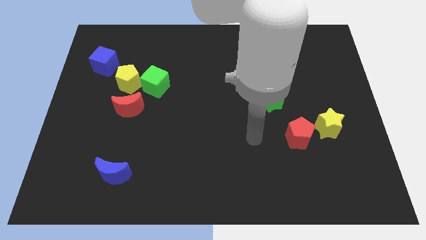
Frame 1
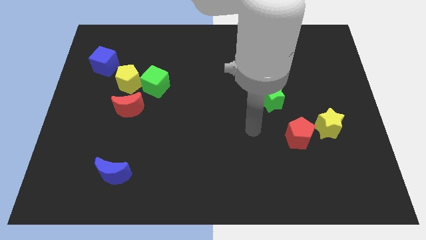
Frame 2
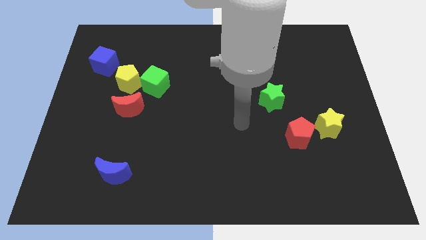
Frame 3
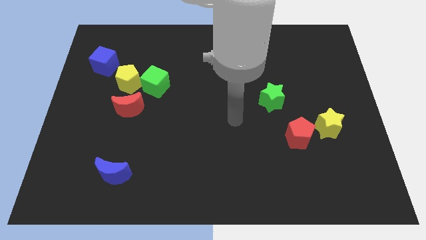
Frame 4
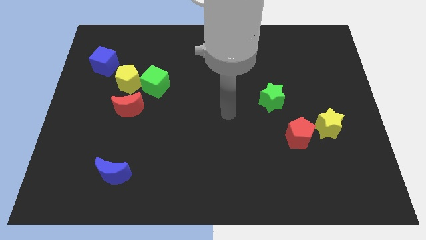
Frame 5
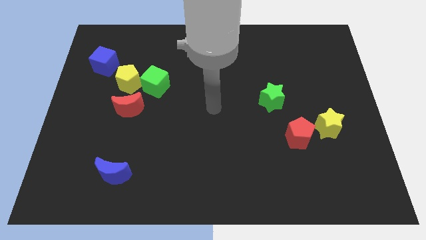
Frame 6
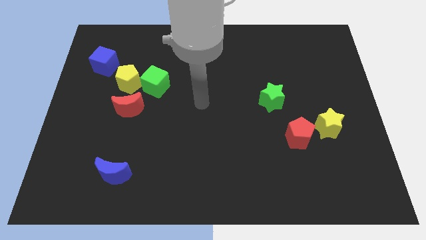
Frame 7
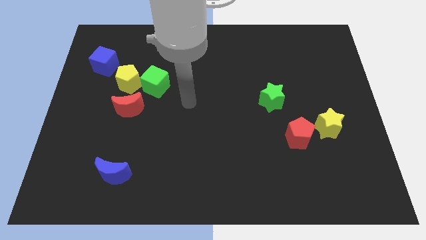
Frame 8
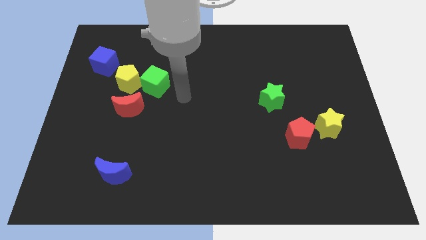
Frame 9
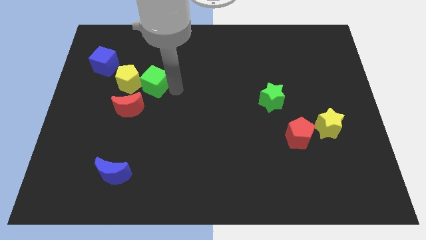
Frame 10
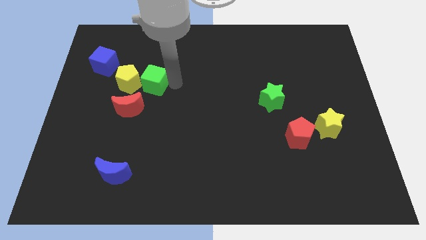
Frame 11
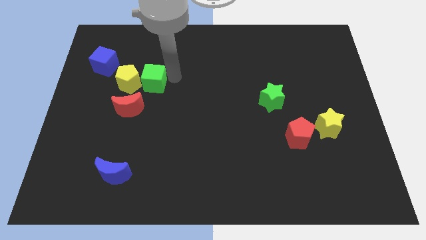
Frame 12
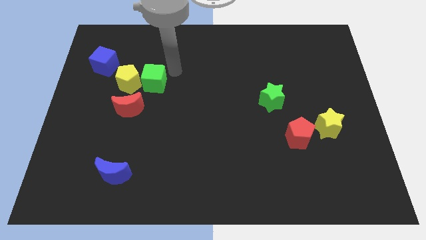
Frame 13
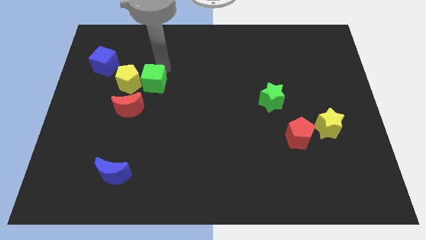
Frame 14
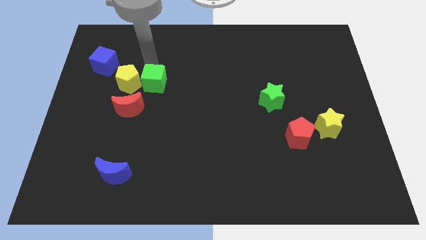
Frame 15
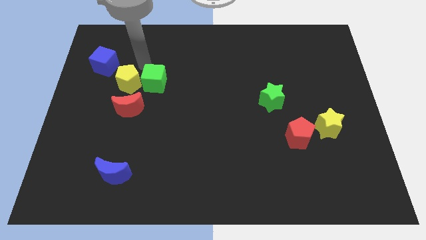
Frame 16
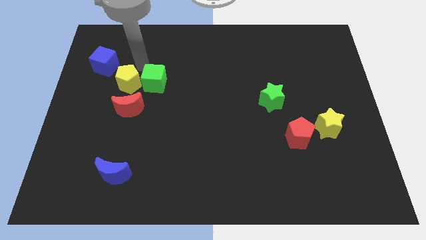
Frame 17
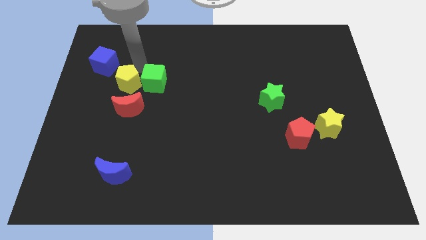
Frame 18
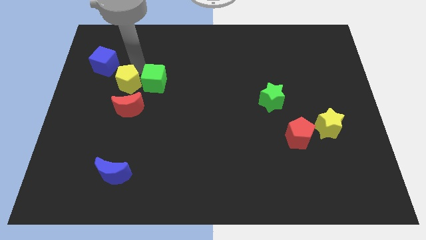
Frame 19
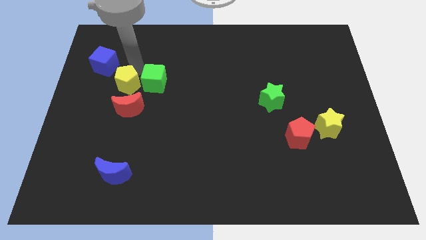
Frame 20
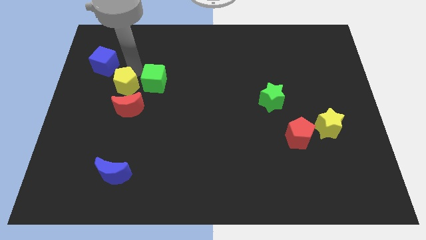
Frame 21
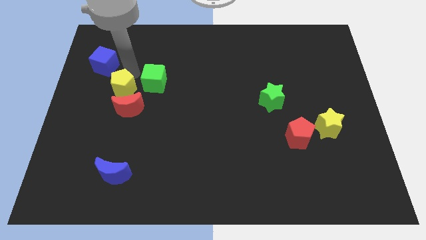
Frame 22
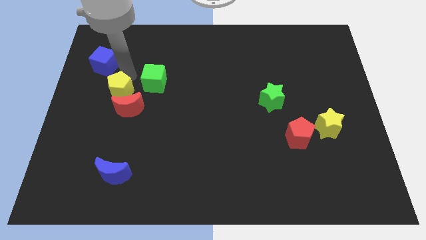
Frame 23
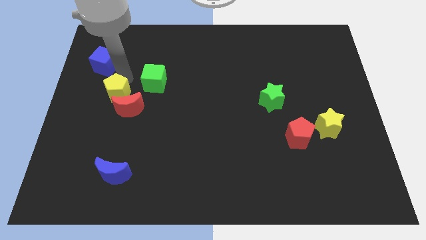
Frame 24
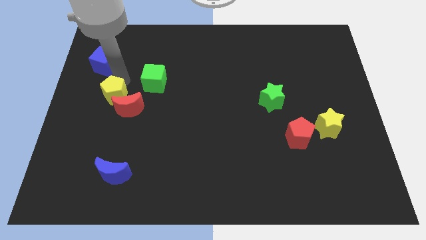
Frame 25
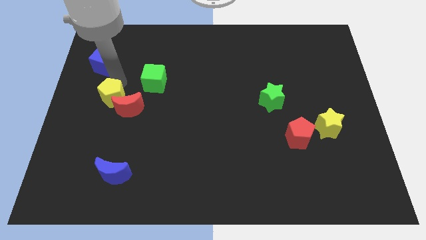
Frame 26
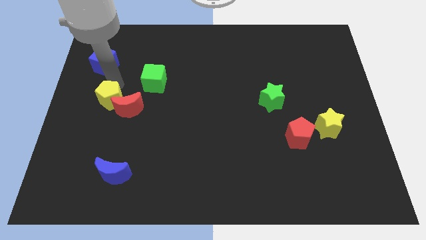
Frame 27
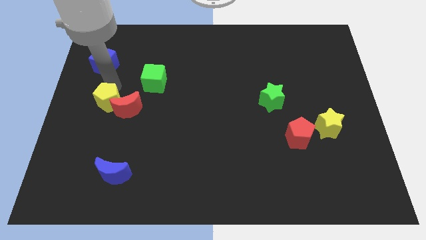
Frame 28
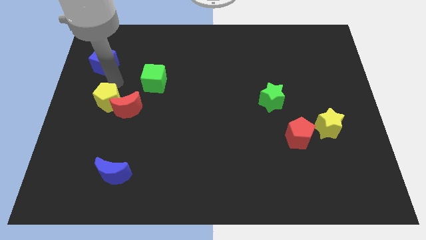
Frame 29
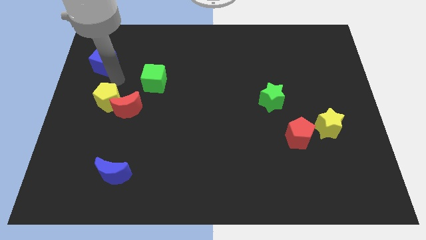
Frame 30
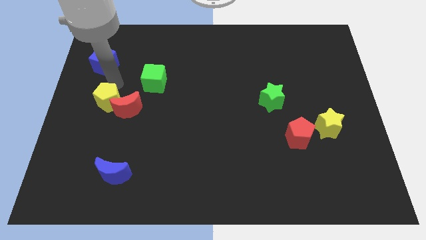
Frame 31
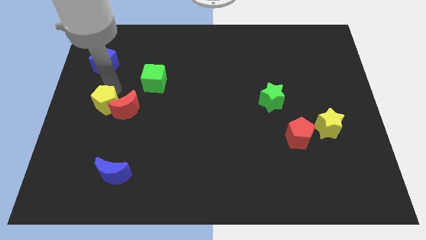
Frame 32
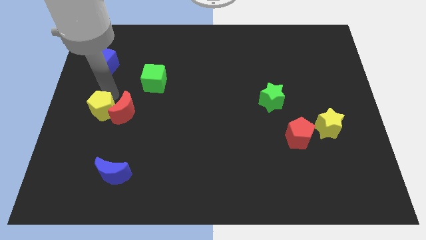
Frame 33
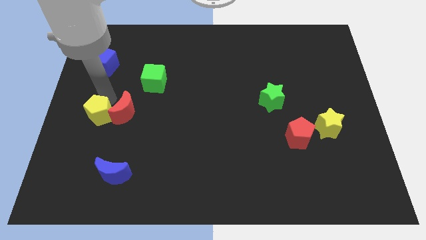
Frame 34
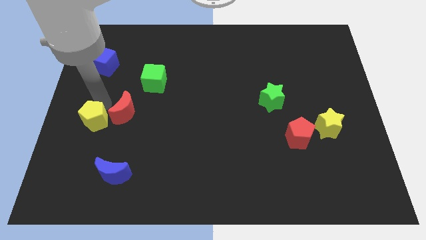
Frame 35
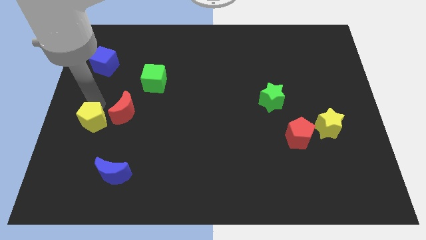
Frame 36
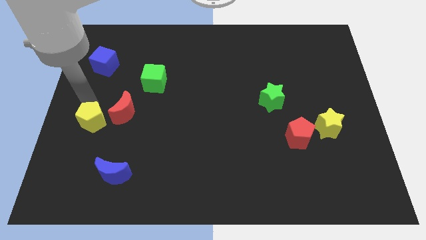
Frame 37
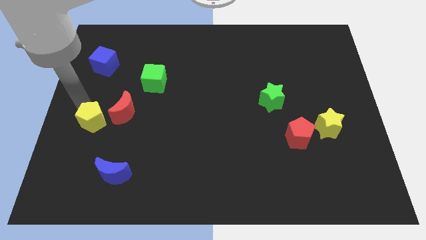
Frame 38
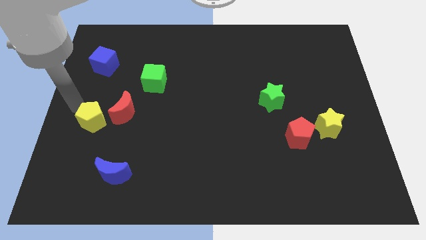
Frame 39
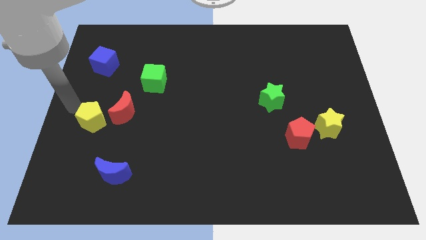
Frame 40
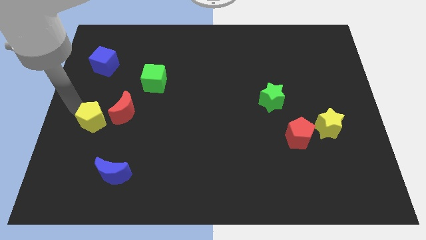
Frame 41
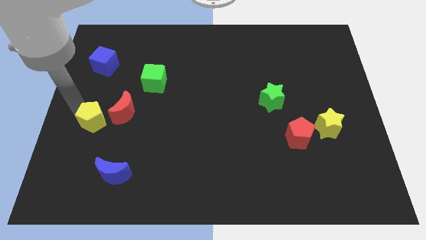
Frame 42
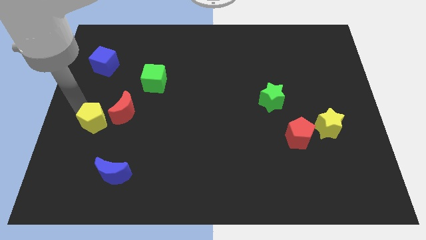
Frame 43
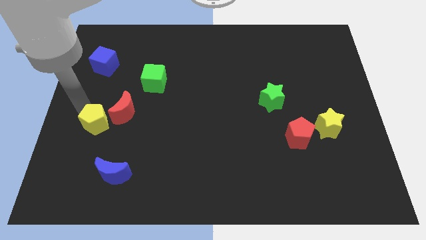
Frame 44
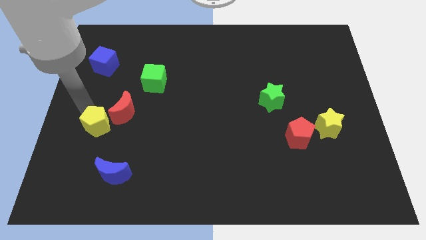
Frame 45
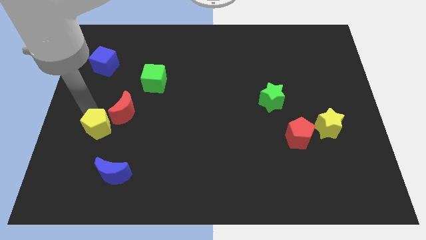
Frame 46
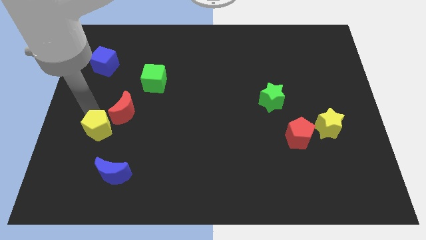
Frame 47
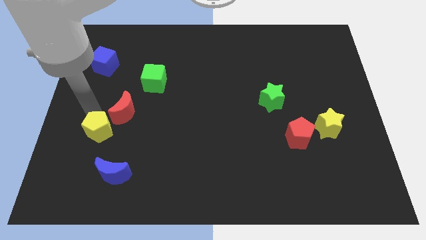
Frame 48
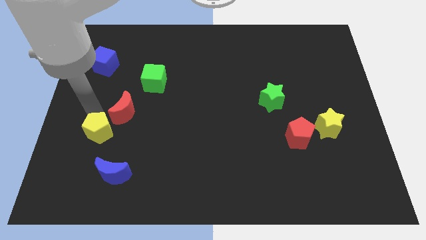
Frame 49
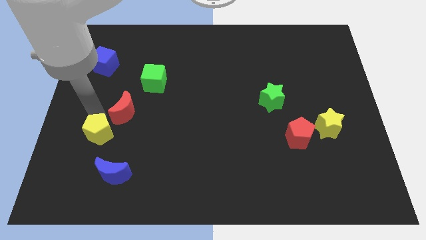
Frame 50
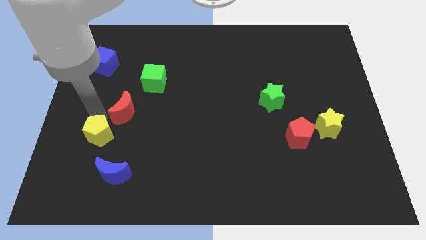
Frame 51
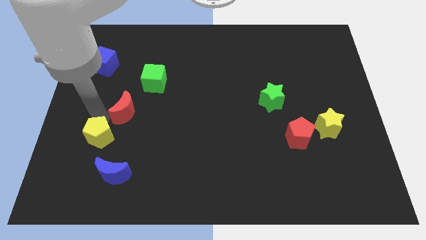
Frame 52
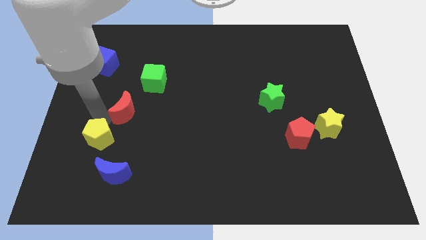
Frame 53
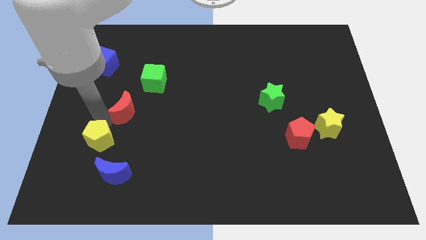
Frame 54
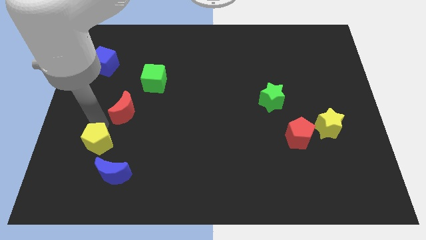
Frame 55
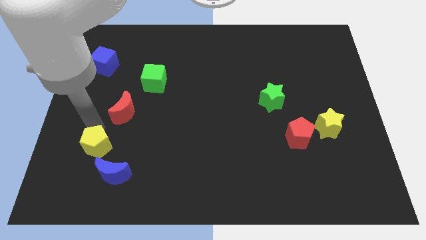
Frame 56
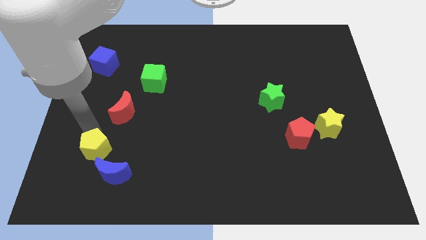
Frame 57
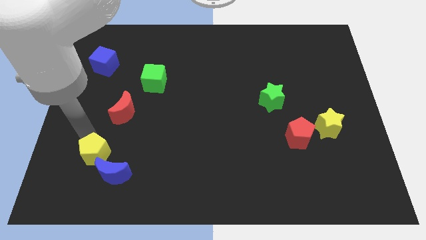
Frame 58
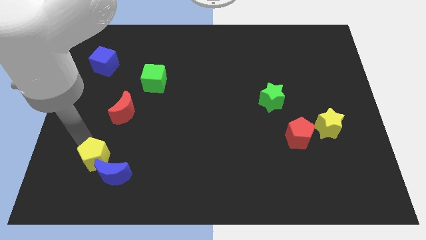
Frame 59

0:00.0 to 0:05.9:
slide the yellow pentagon towards the blue moon

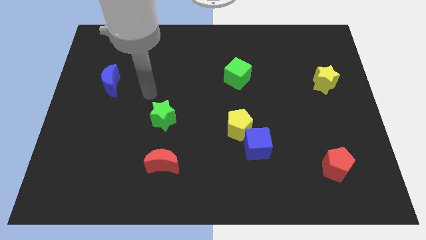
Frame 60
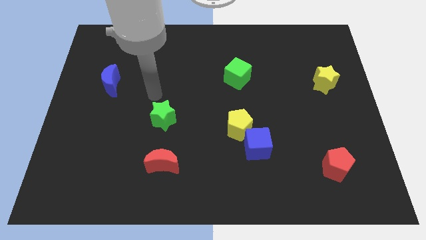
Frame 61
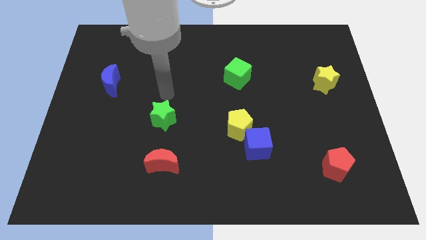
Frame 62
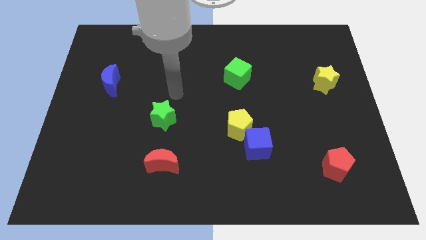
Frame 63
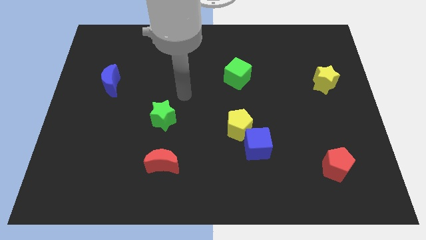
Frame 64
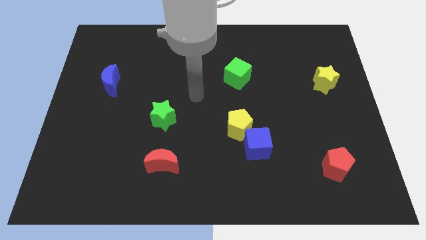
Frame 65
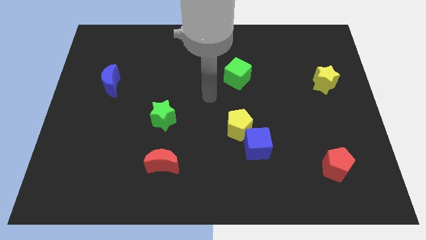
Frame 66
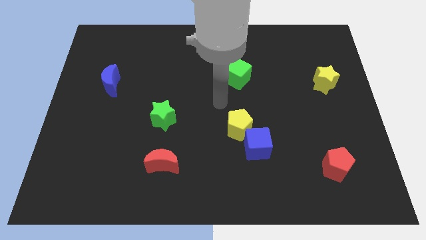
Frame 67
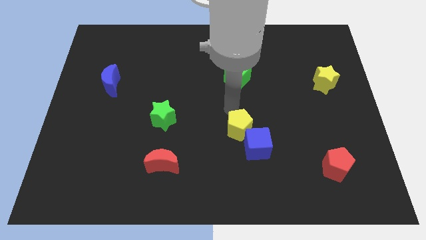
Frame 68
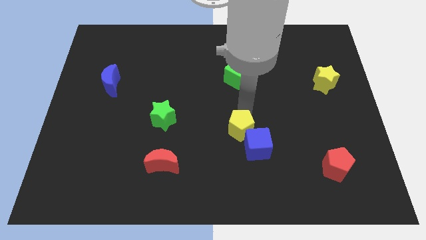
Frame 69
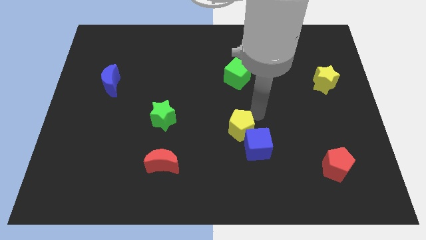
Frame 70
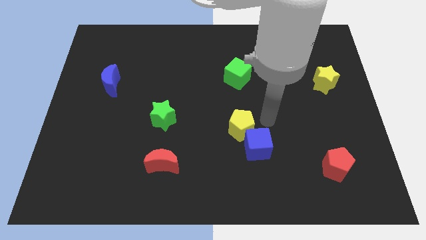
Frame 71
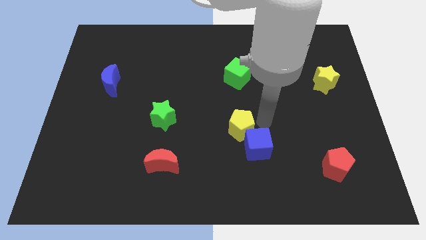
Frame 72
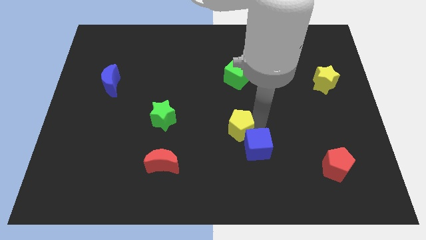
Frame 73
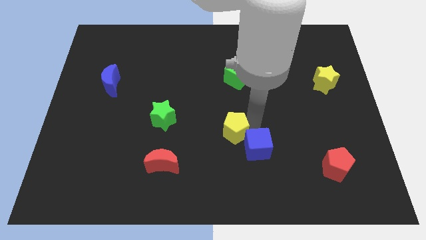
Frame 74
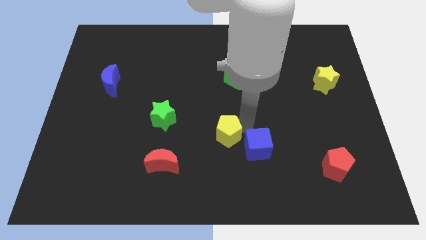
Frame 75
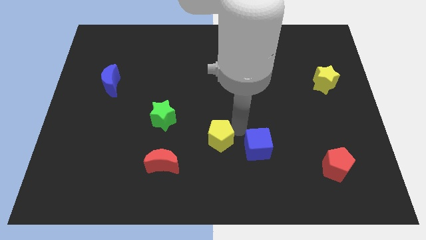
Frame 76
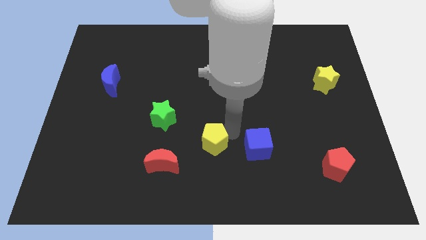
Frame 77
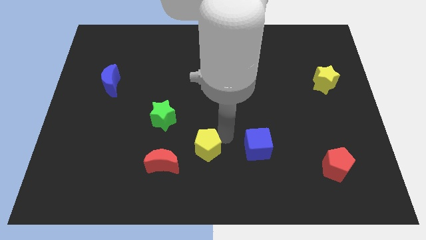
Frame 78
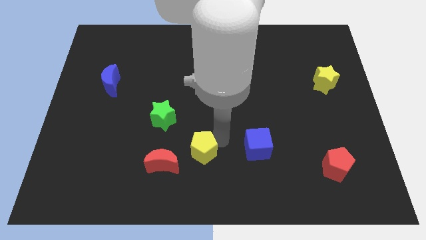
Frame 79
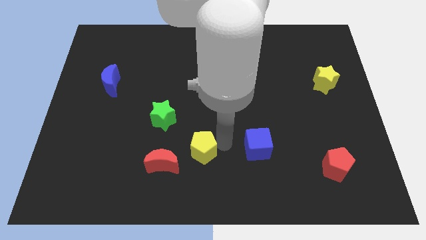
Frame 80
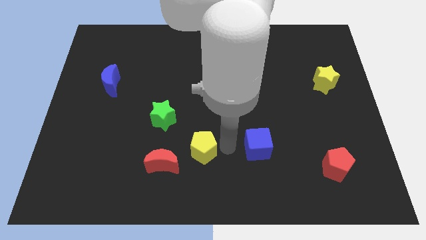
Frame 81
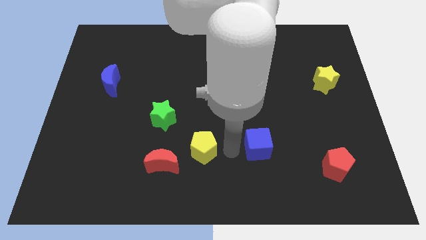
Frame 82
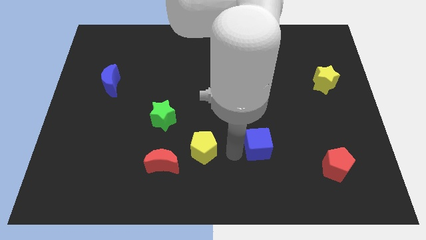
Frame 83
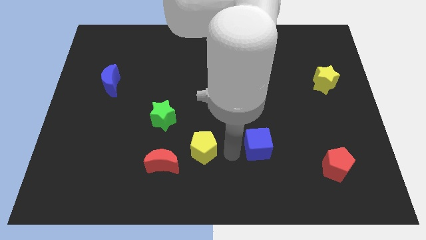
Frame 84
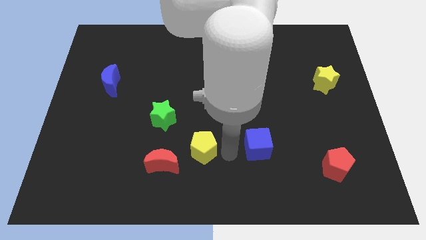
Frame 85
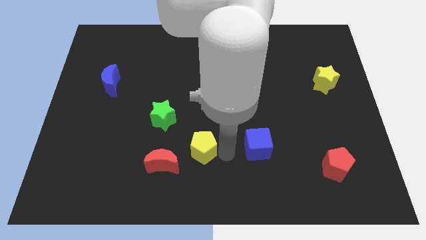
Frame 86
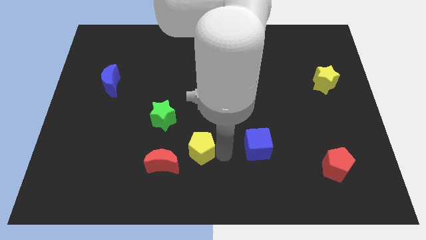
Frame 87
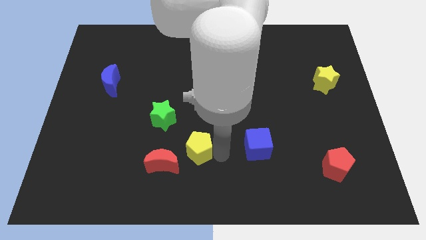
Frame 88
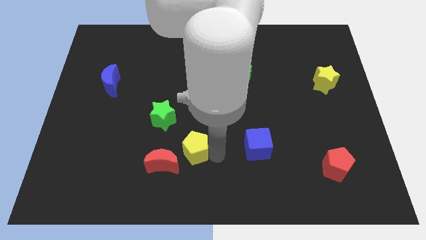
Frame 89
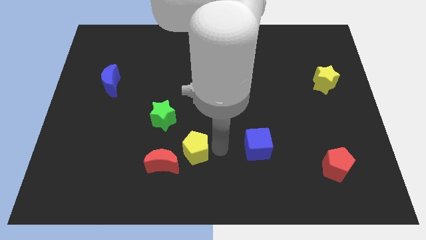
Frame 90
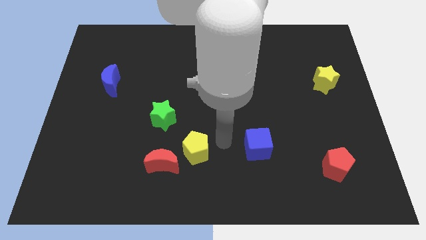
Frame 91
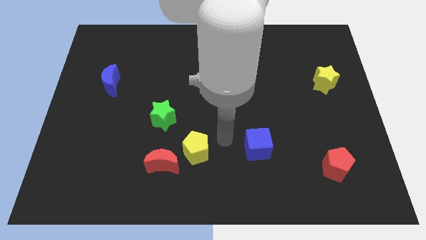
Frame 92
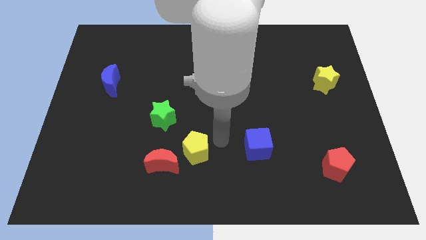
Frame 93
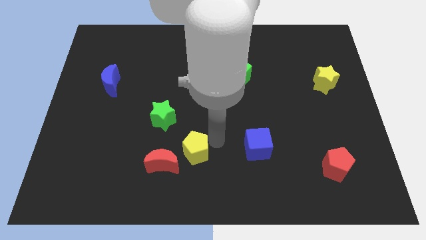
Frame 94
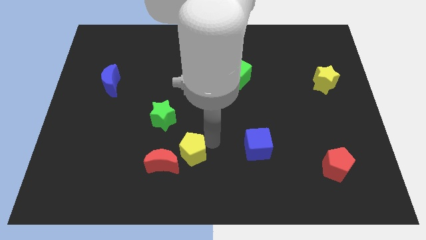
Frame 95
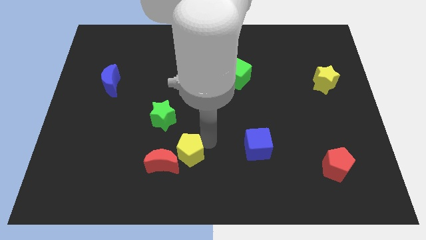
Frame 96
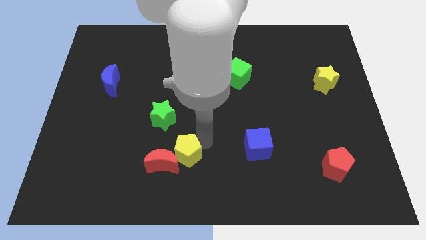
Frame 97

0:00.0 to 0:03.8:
push the yellow pentagon close to the red moon
